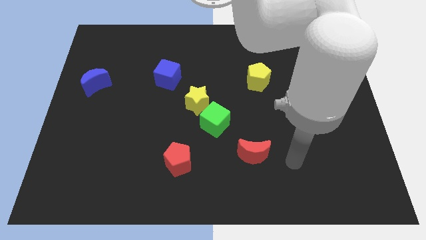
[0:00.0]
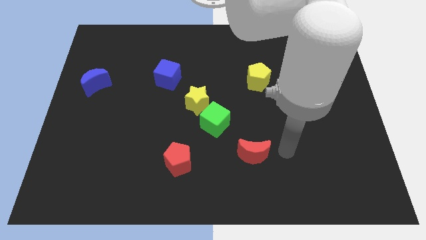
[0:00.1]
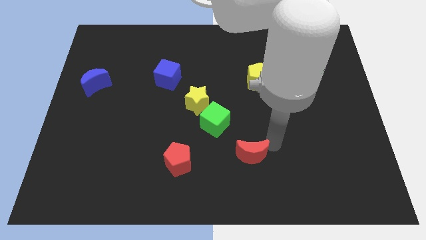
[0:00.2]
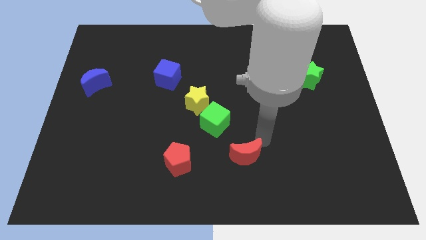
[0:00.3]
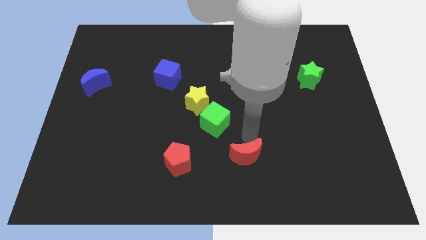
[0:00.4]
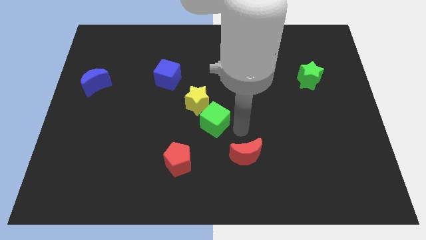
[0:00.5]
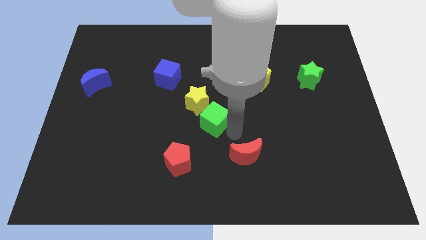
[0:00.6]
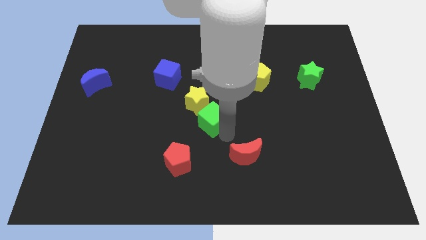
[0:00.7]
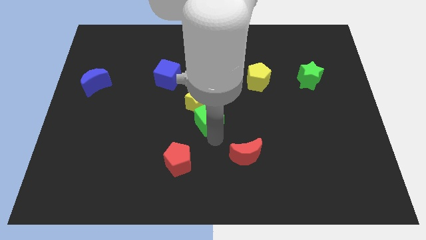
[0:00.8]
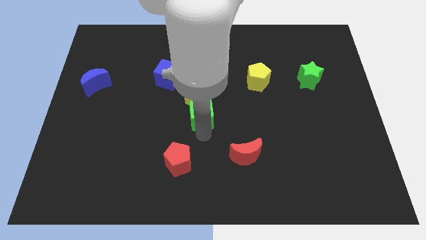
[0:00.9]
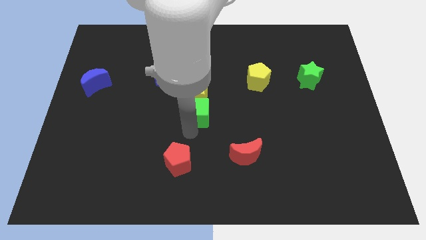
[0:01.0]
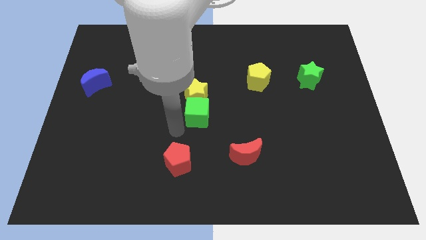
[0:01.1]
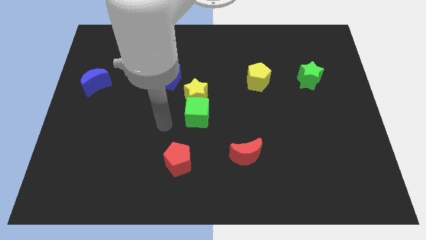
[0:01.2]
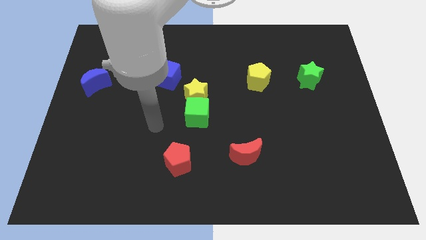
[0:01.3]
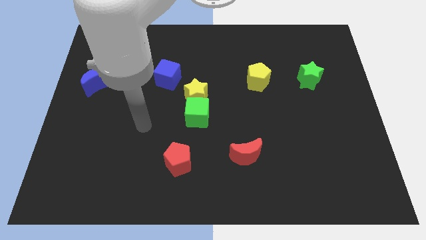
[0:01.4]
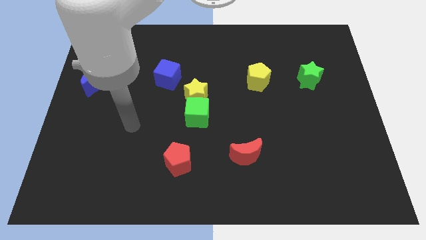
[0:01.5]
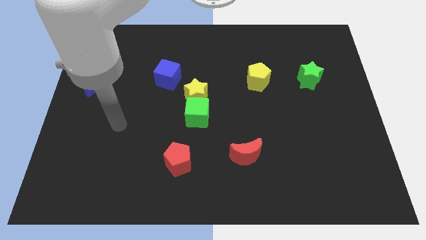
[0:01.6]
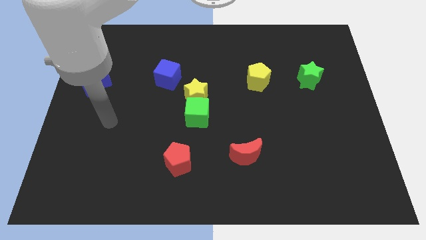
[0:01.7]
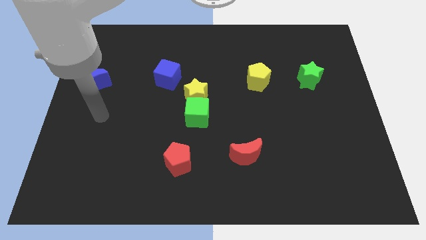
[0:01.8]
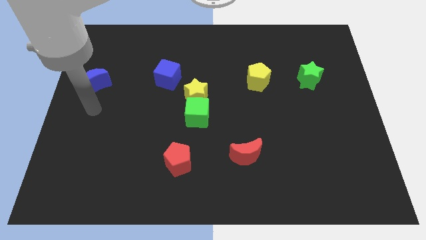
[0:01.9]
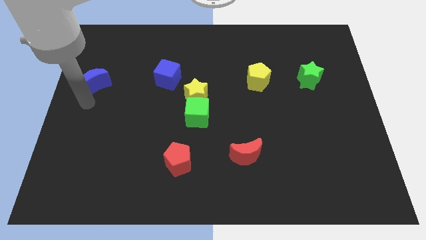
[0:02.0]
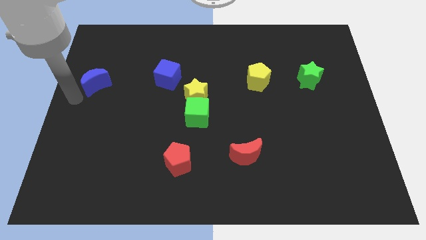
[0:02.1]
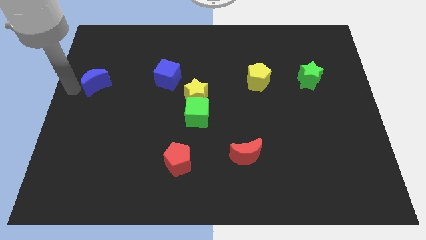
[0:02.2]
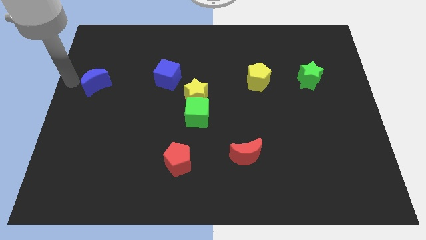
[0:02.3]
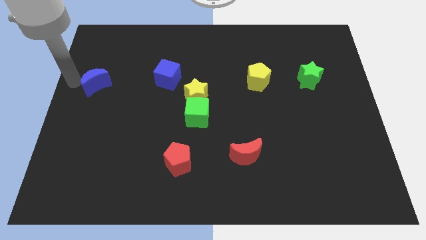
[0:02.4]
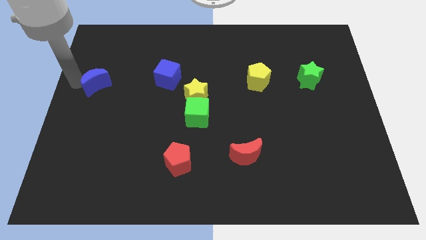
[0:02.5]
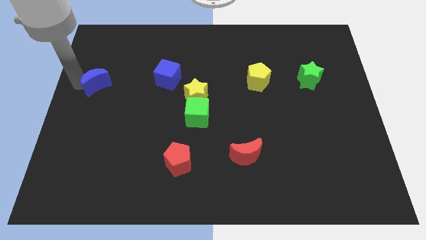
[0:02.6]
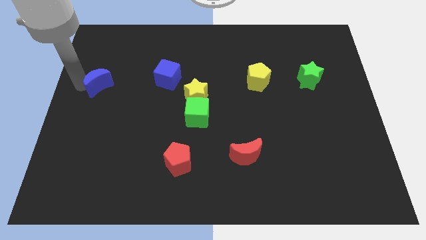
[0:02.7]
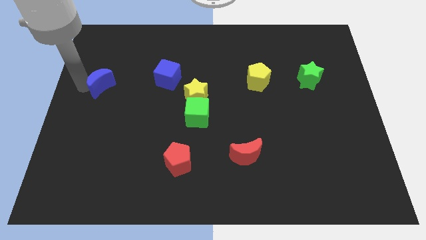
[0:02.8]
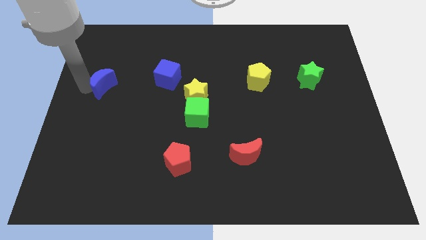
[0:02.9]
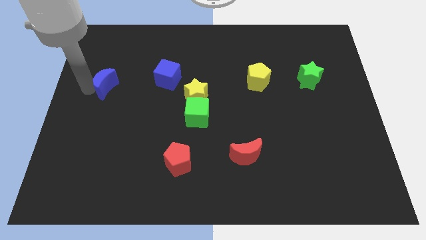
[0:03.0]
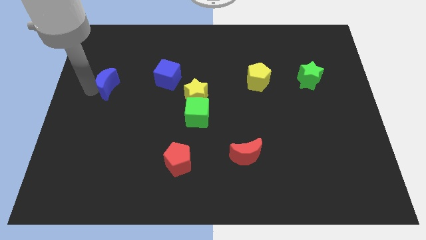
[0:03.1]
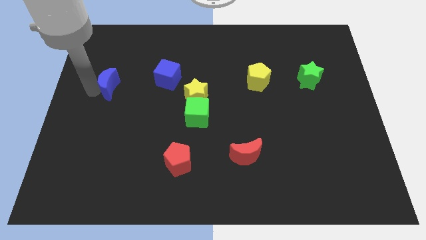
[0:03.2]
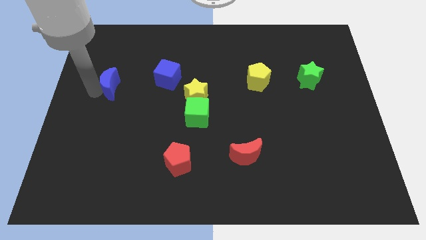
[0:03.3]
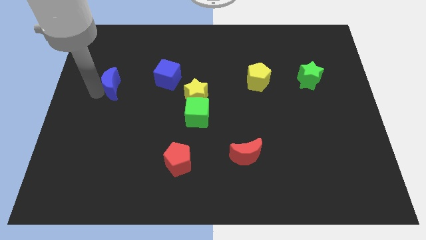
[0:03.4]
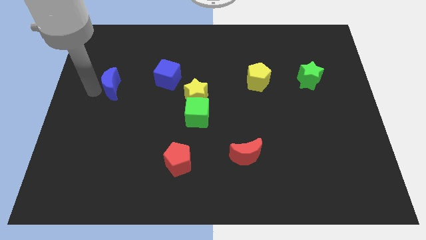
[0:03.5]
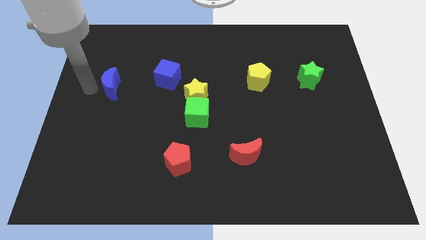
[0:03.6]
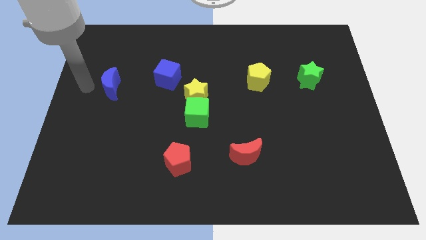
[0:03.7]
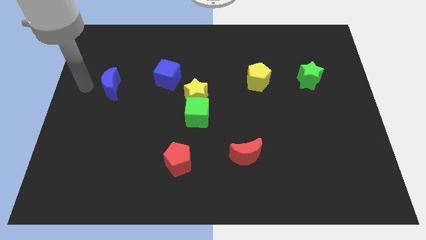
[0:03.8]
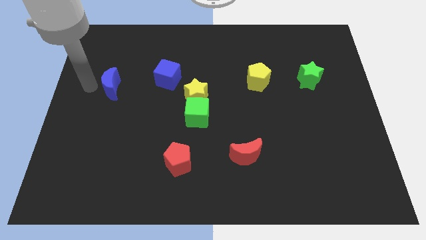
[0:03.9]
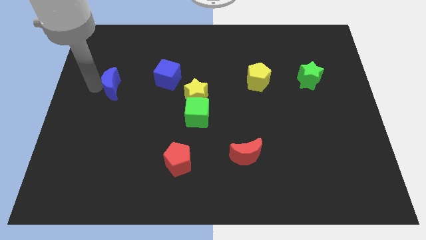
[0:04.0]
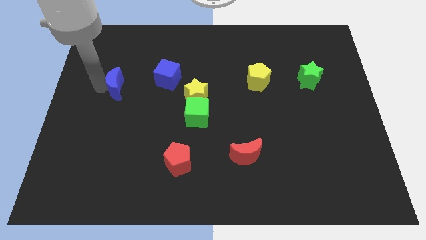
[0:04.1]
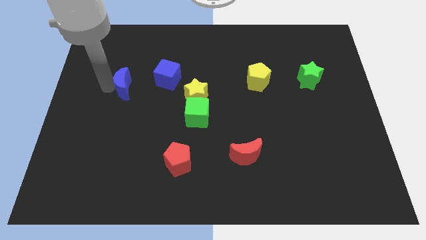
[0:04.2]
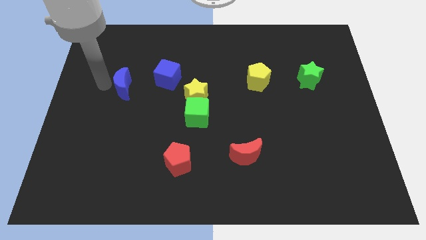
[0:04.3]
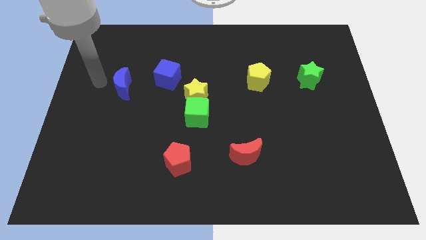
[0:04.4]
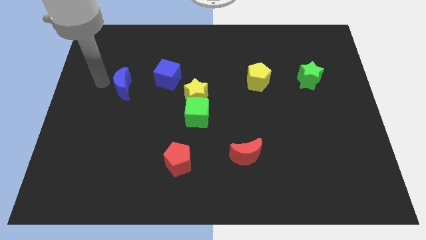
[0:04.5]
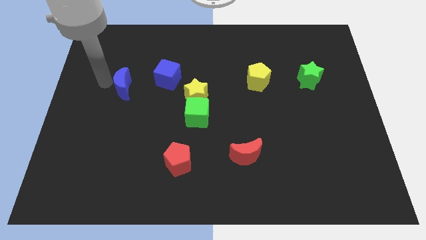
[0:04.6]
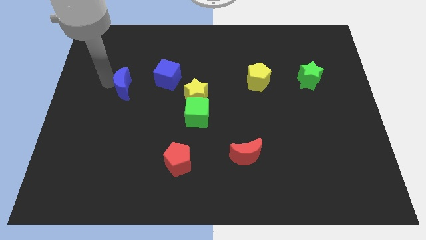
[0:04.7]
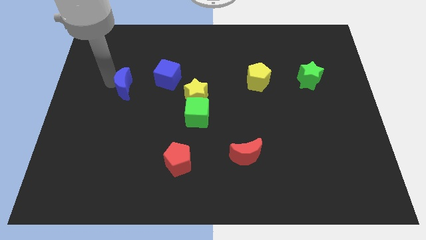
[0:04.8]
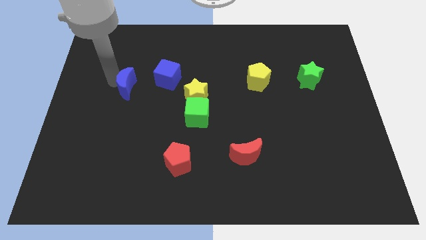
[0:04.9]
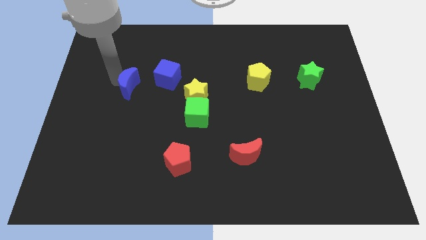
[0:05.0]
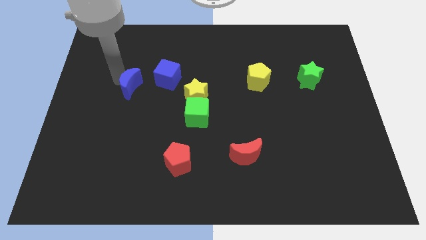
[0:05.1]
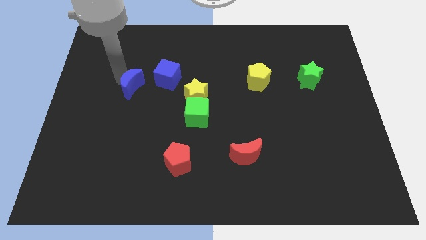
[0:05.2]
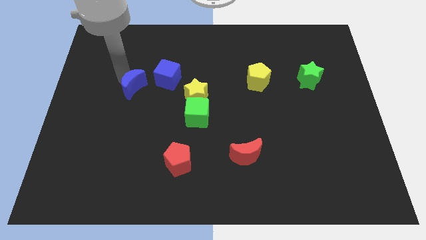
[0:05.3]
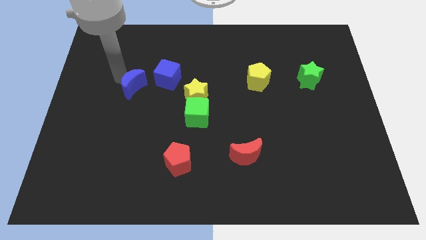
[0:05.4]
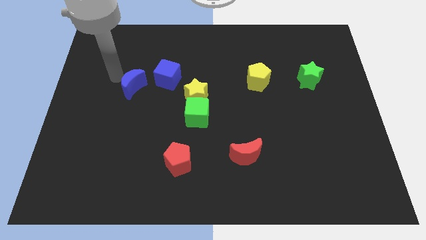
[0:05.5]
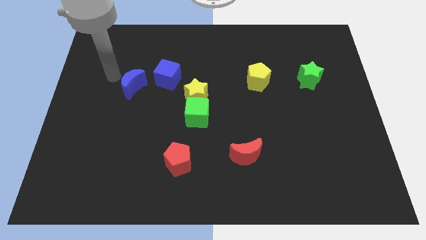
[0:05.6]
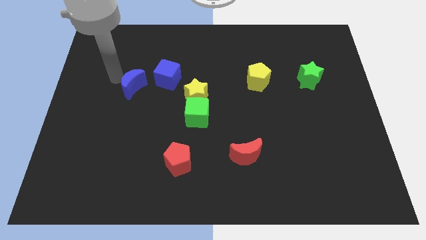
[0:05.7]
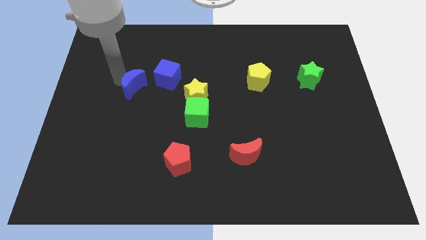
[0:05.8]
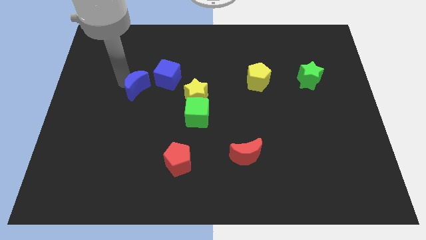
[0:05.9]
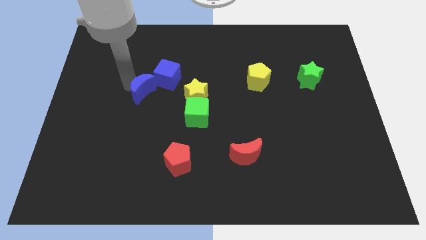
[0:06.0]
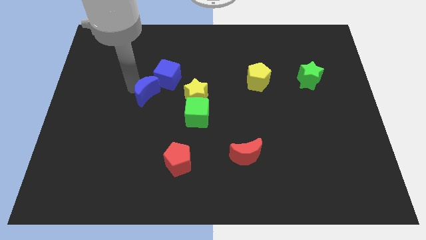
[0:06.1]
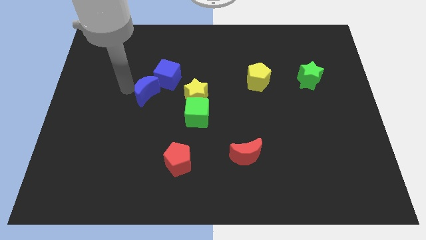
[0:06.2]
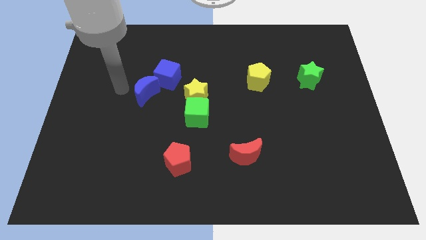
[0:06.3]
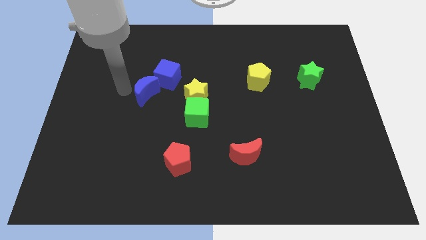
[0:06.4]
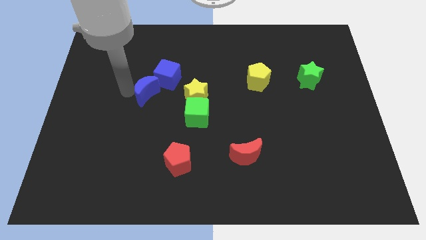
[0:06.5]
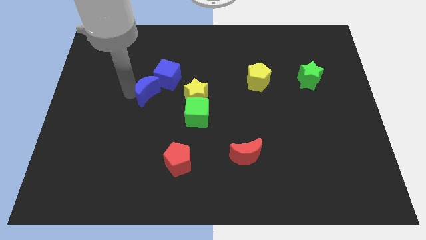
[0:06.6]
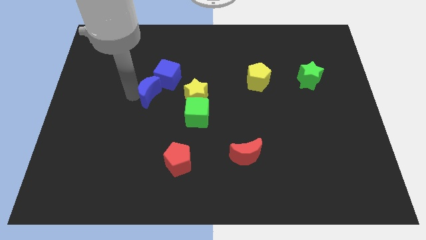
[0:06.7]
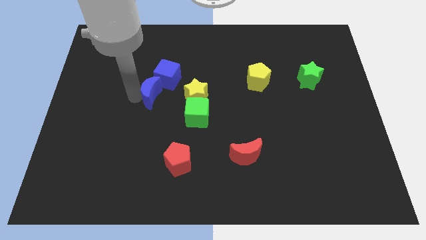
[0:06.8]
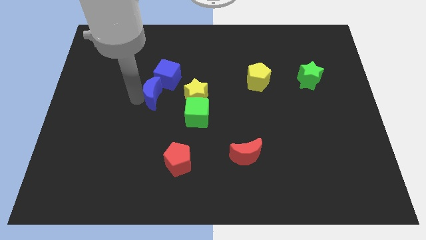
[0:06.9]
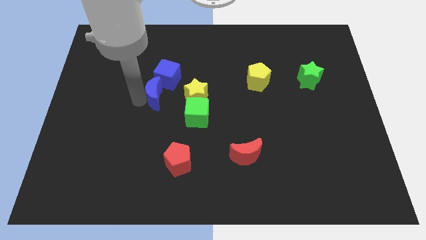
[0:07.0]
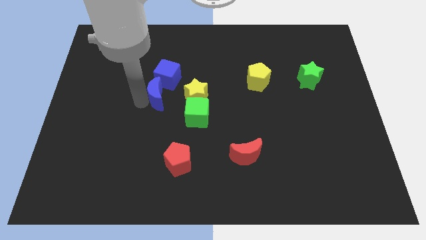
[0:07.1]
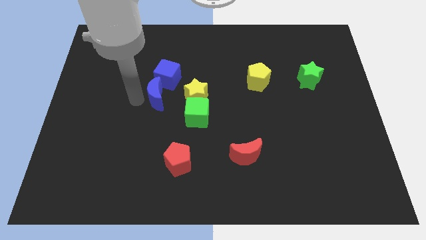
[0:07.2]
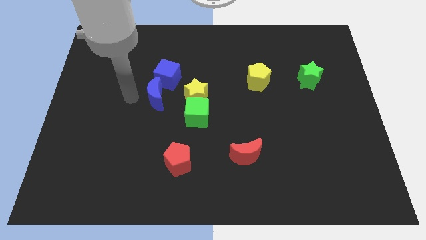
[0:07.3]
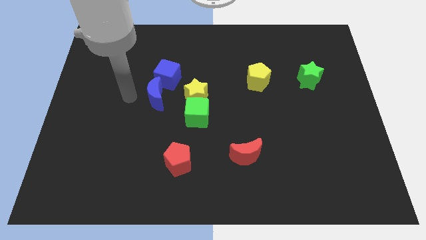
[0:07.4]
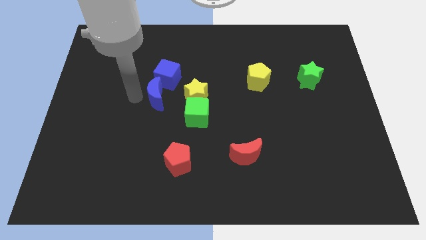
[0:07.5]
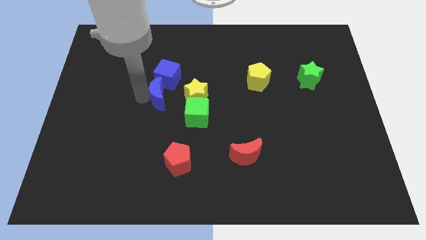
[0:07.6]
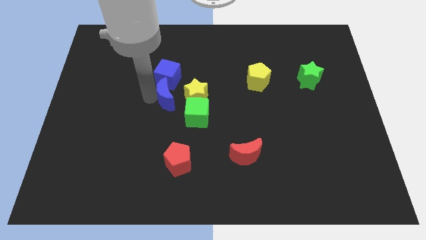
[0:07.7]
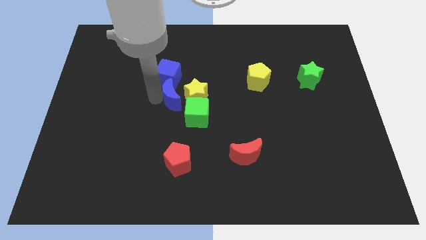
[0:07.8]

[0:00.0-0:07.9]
push the blue moon to the yellow star
